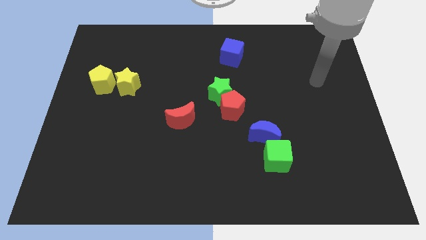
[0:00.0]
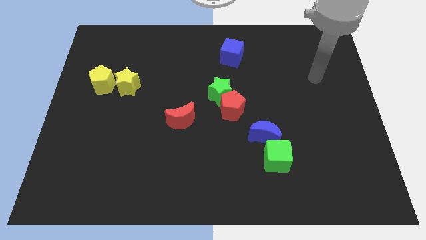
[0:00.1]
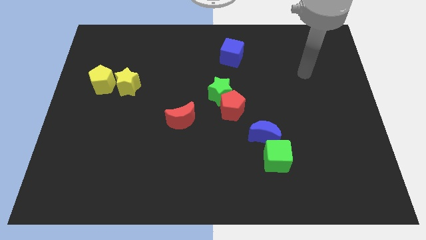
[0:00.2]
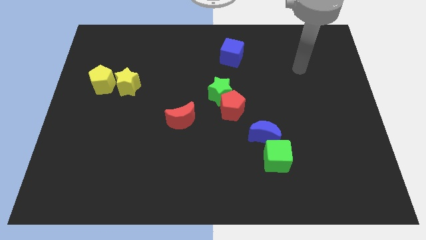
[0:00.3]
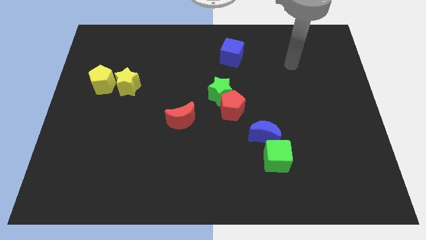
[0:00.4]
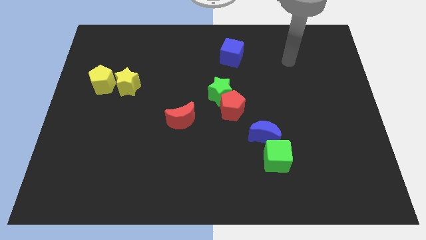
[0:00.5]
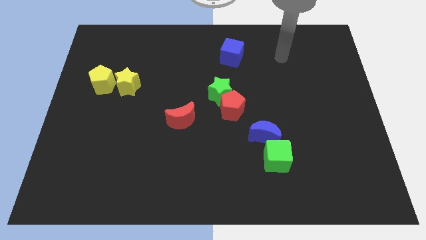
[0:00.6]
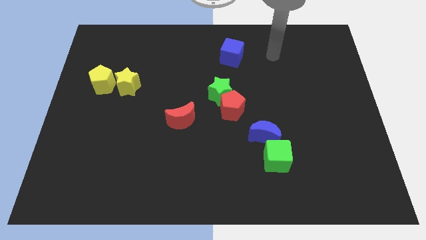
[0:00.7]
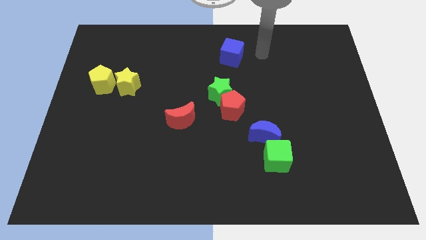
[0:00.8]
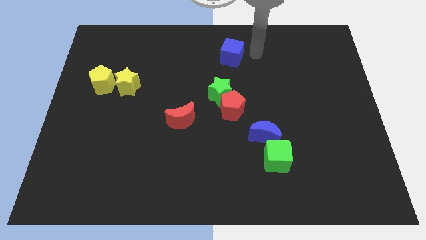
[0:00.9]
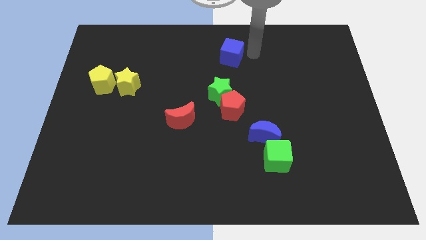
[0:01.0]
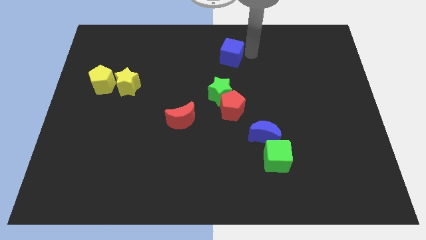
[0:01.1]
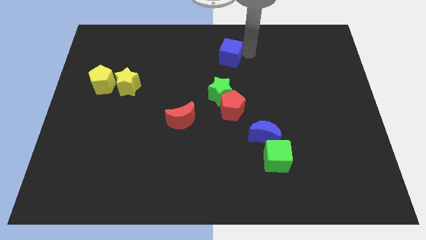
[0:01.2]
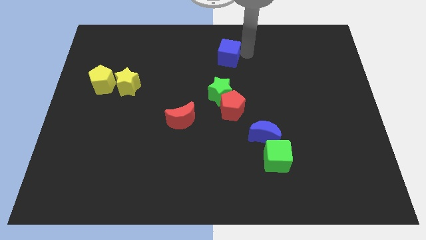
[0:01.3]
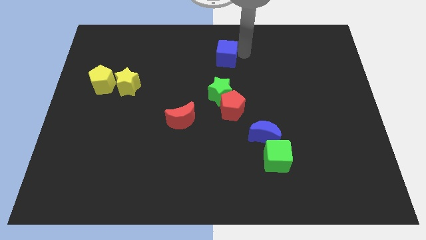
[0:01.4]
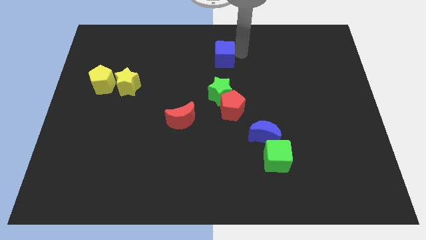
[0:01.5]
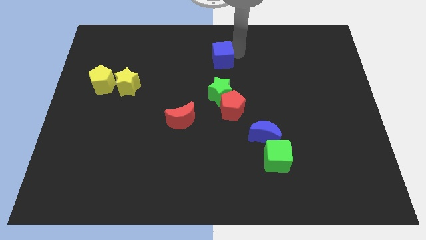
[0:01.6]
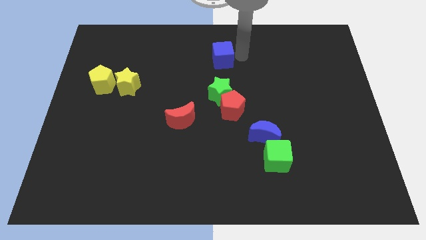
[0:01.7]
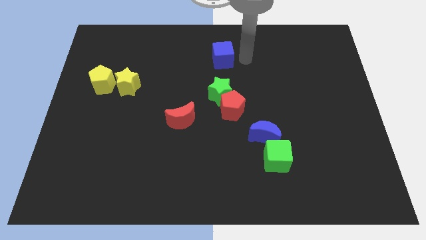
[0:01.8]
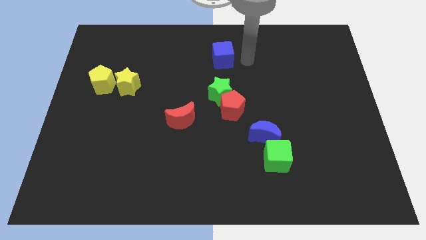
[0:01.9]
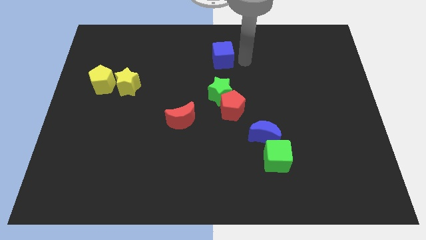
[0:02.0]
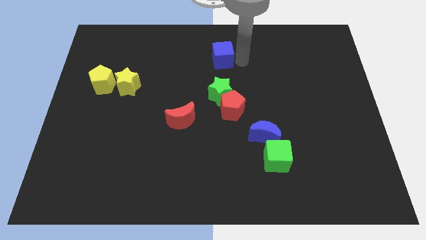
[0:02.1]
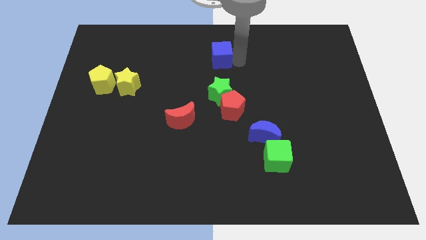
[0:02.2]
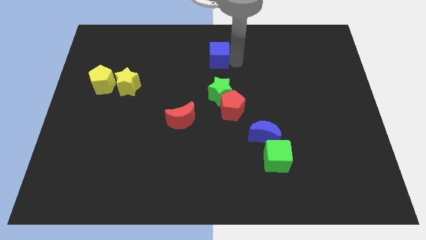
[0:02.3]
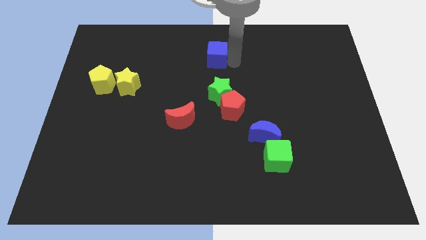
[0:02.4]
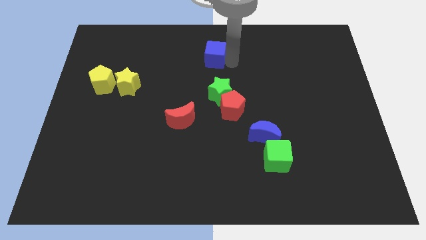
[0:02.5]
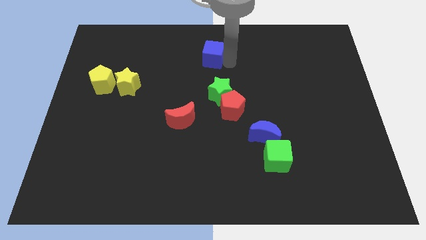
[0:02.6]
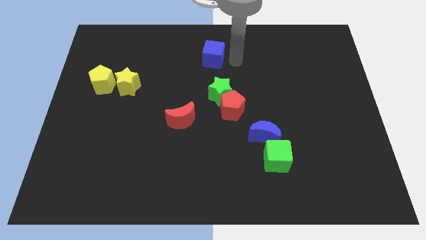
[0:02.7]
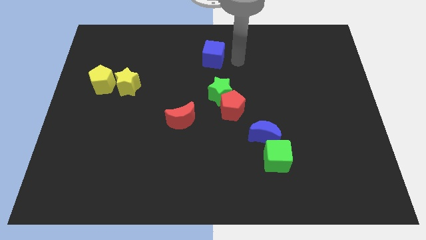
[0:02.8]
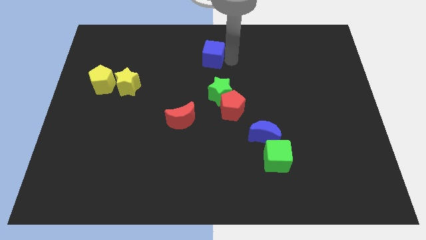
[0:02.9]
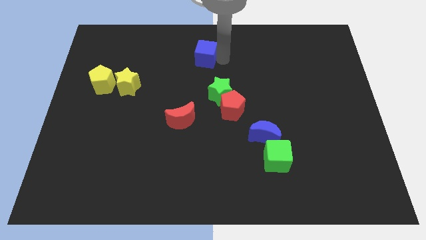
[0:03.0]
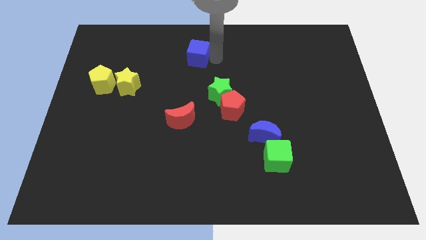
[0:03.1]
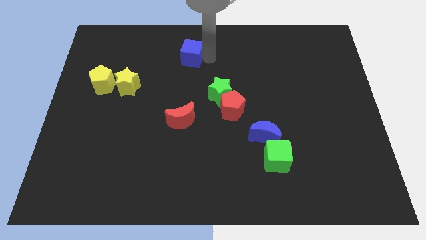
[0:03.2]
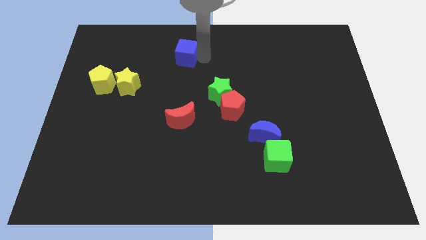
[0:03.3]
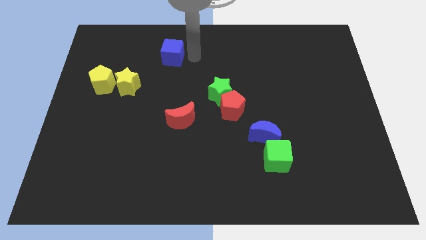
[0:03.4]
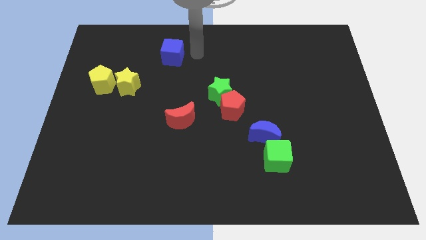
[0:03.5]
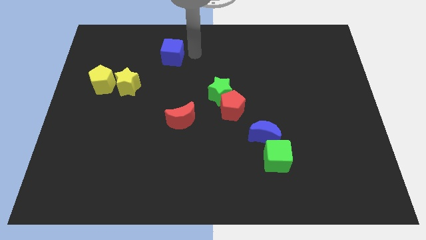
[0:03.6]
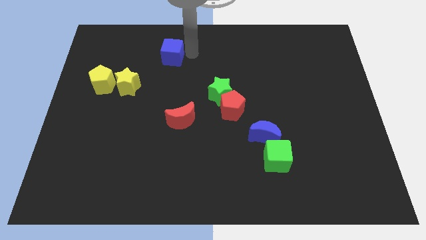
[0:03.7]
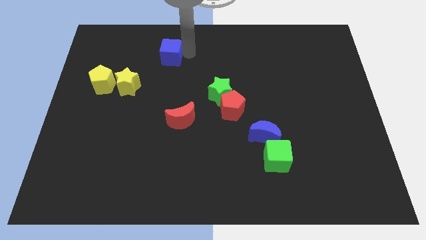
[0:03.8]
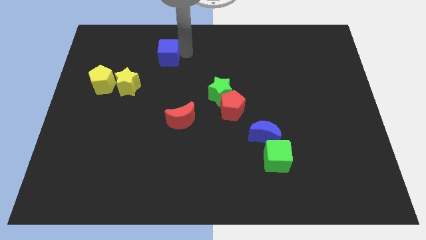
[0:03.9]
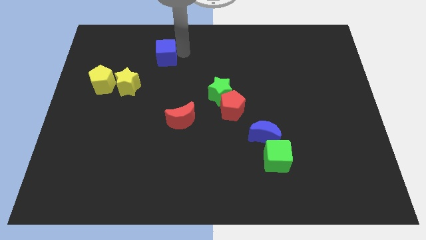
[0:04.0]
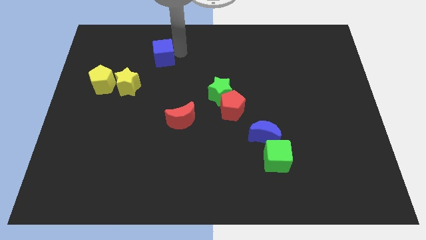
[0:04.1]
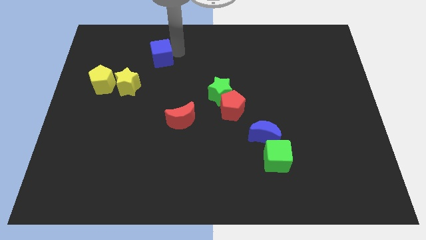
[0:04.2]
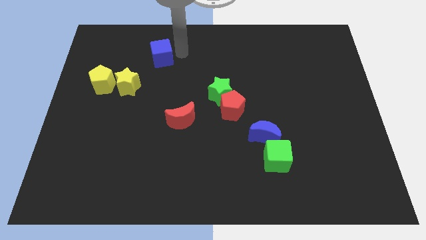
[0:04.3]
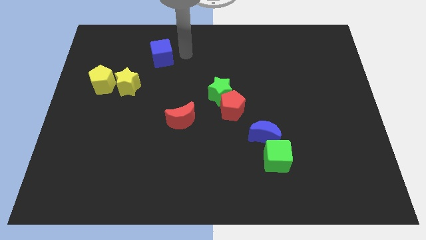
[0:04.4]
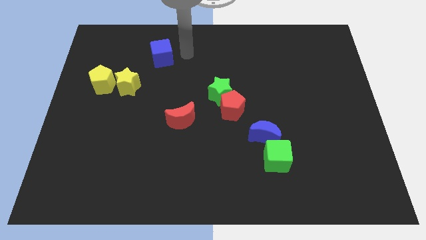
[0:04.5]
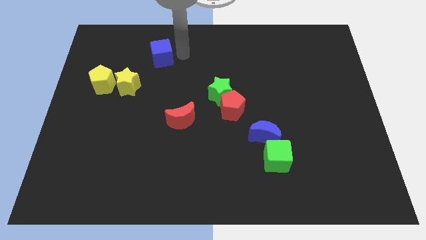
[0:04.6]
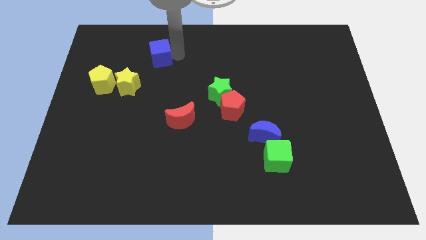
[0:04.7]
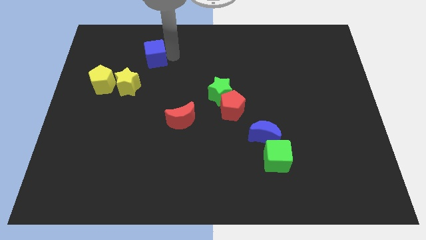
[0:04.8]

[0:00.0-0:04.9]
slide the blue cube to the left

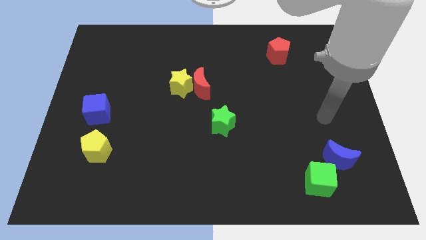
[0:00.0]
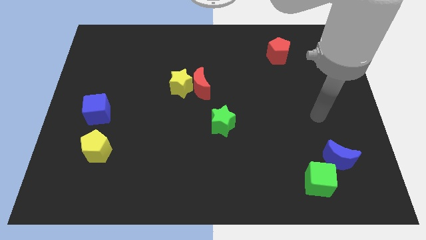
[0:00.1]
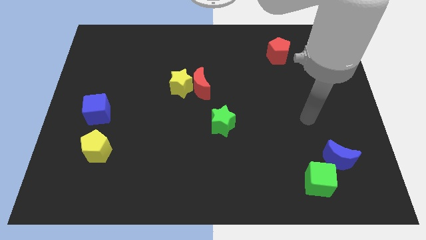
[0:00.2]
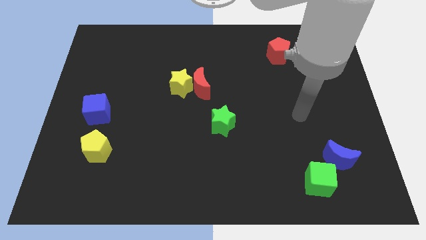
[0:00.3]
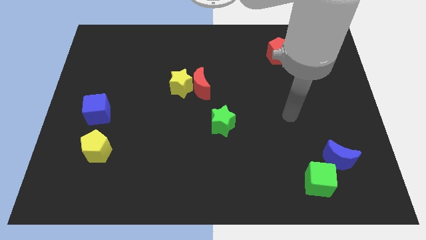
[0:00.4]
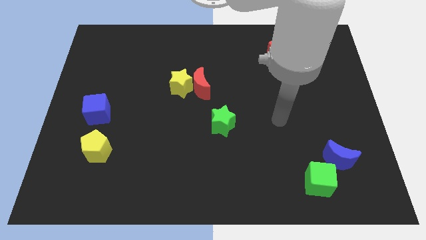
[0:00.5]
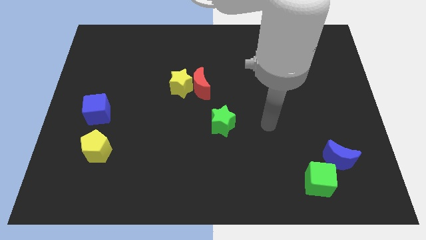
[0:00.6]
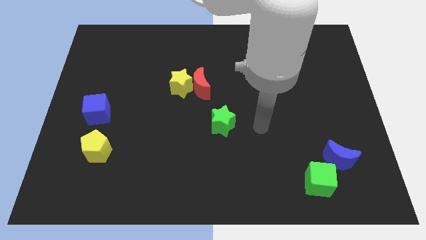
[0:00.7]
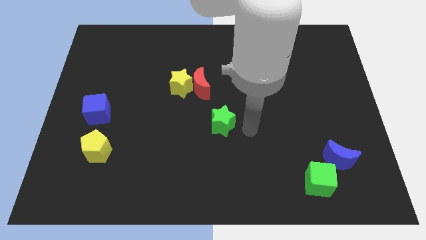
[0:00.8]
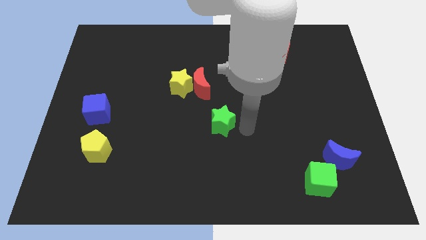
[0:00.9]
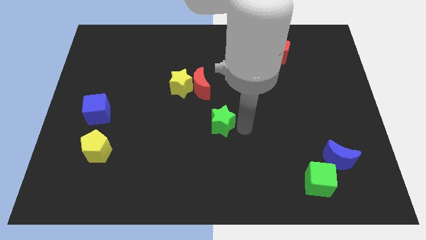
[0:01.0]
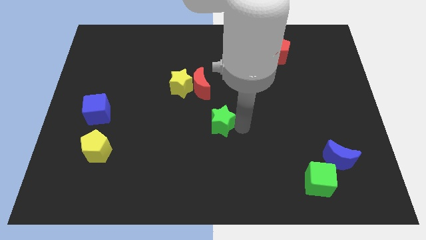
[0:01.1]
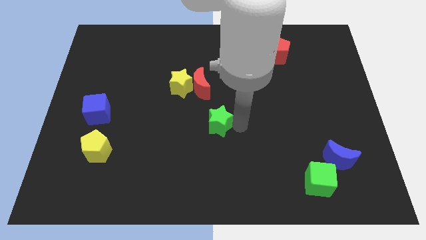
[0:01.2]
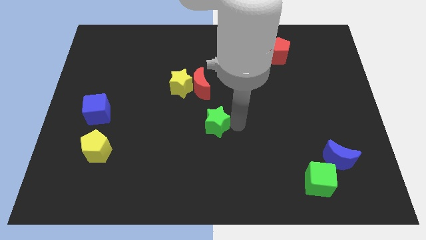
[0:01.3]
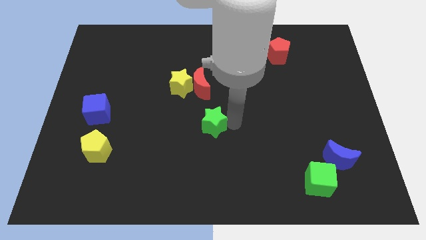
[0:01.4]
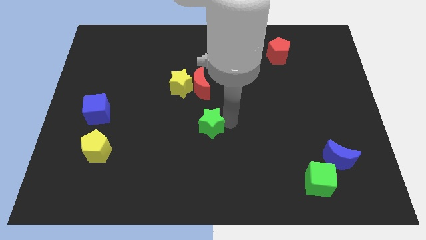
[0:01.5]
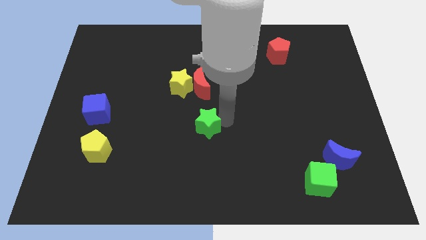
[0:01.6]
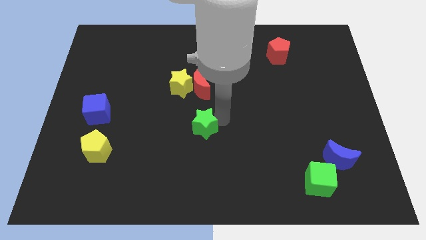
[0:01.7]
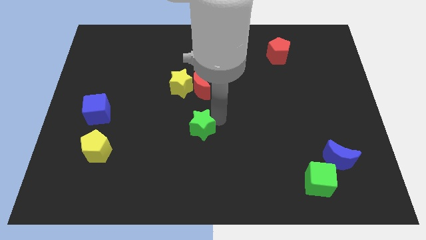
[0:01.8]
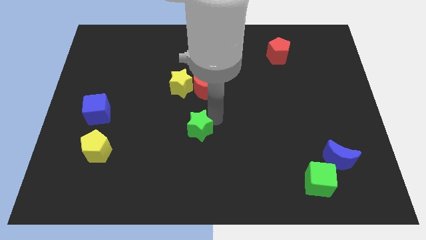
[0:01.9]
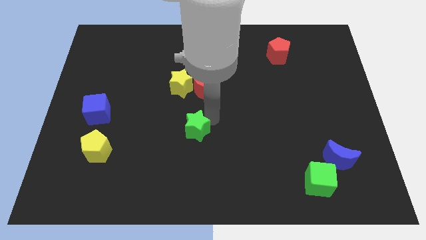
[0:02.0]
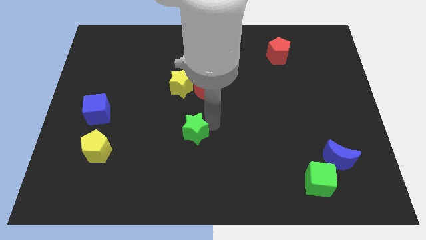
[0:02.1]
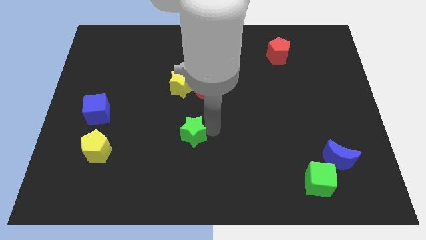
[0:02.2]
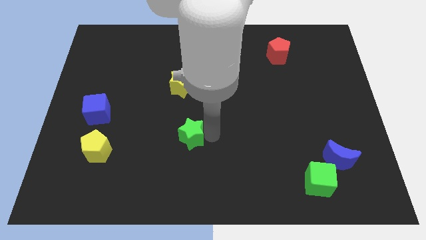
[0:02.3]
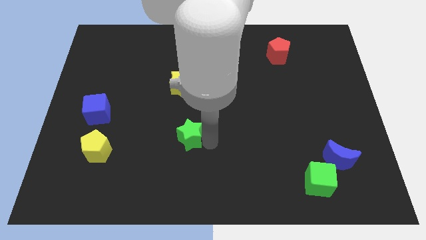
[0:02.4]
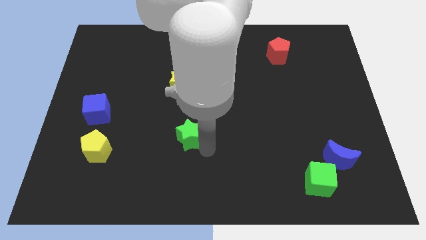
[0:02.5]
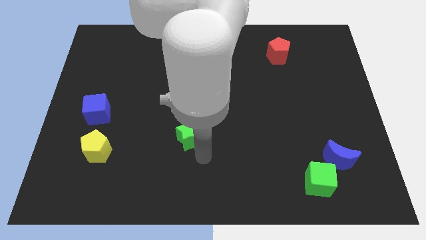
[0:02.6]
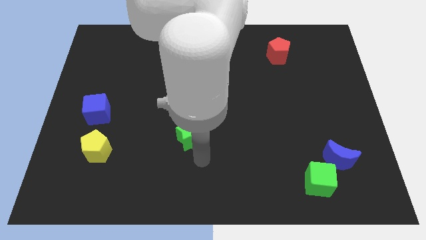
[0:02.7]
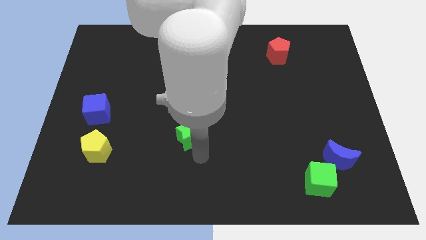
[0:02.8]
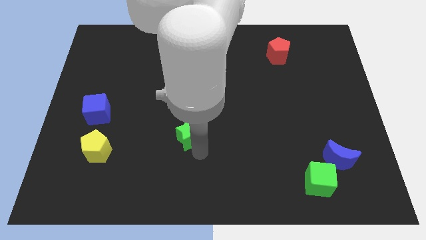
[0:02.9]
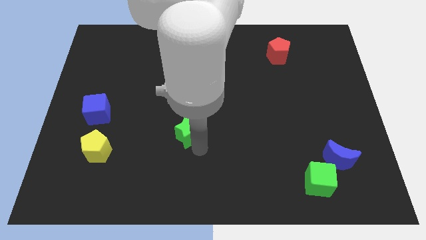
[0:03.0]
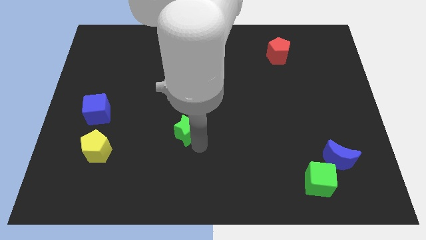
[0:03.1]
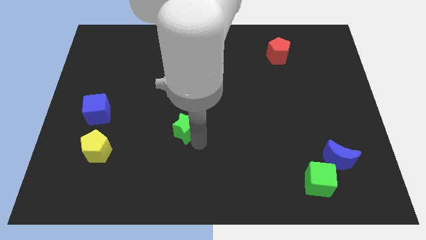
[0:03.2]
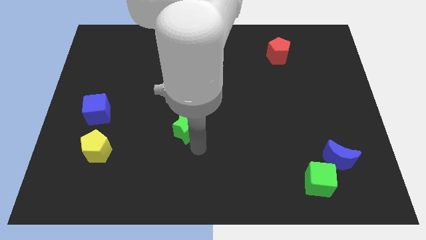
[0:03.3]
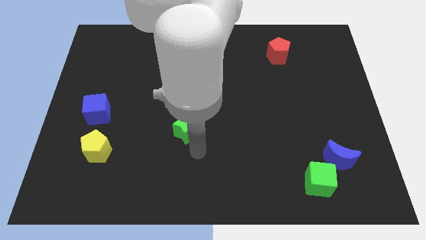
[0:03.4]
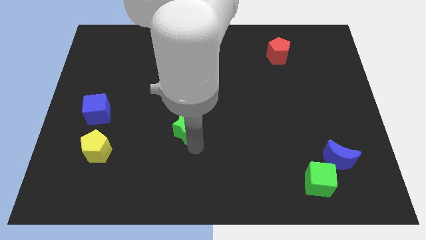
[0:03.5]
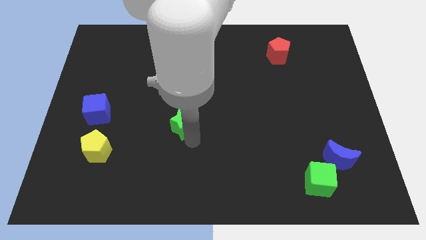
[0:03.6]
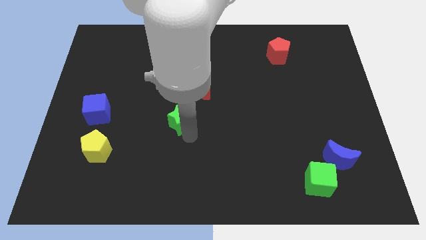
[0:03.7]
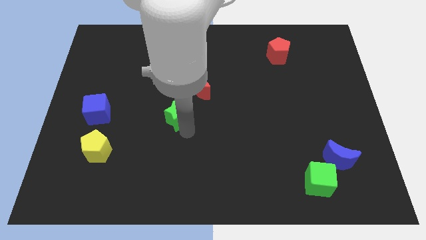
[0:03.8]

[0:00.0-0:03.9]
move the green star slightly up and then left
